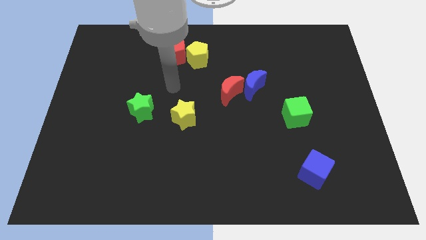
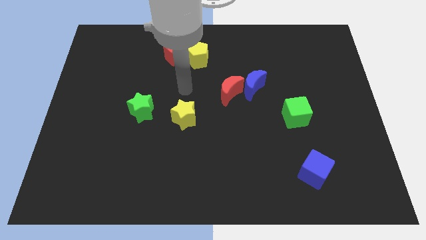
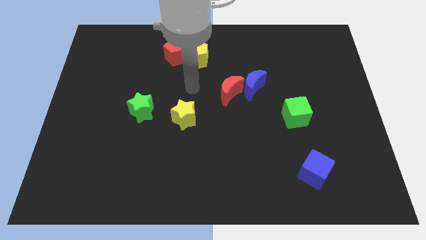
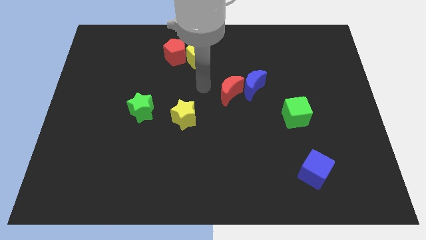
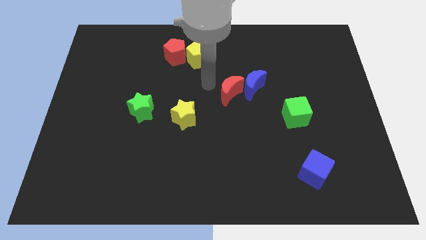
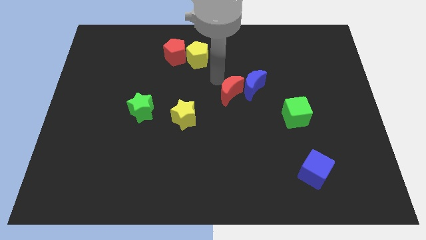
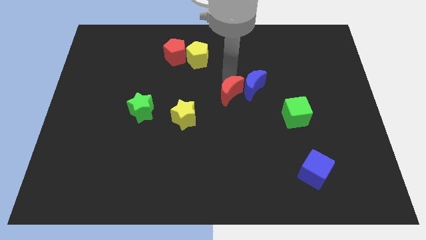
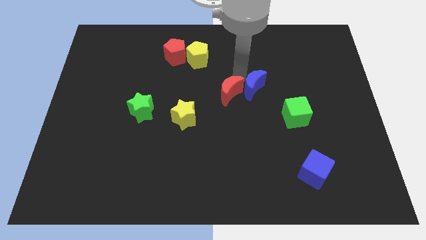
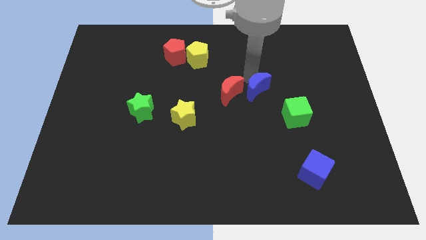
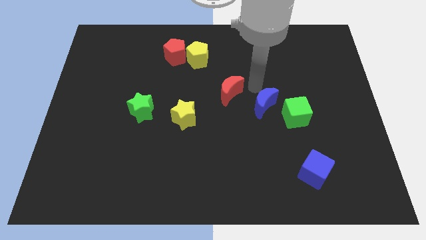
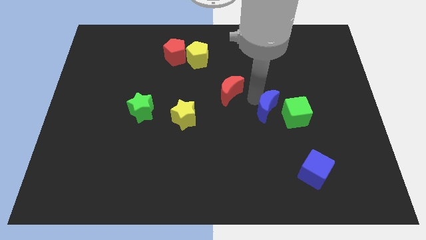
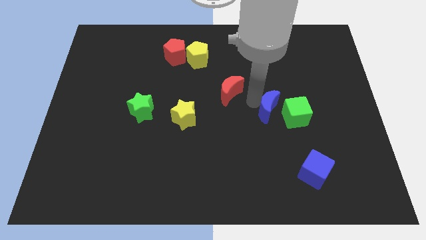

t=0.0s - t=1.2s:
move the red moon away from the blue moon

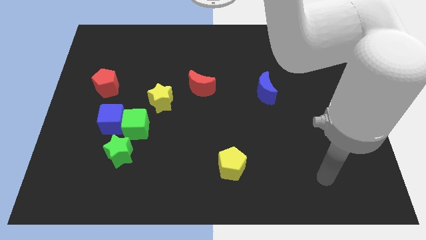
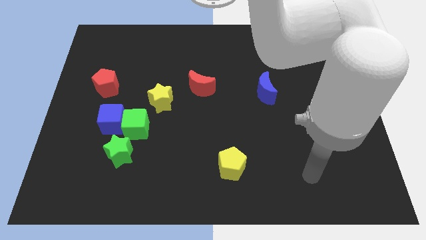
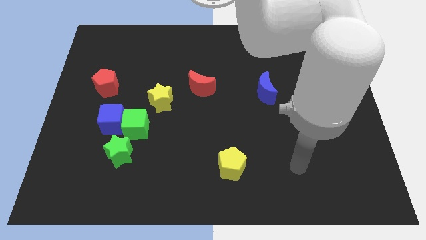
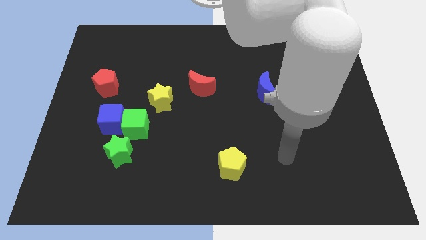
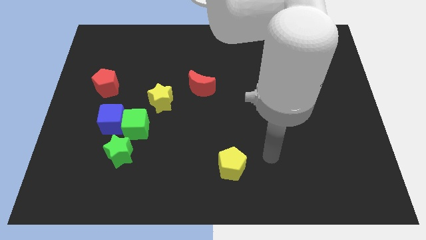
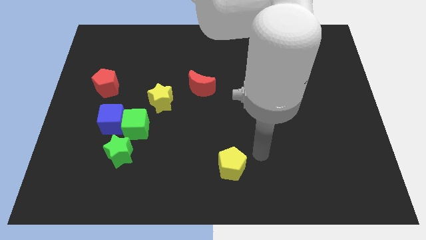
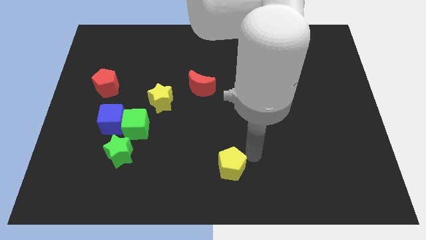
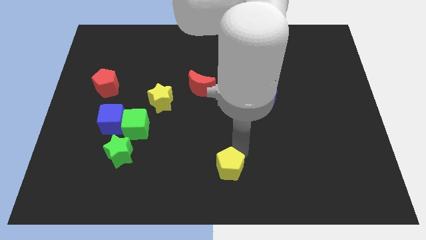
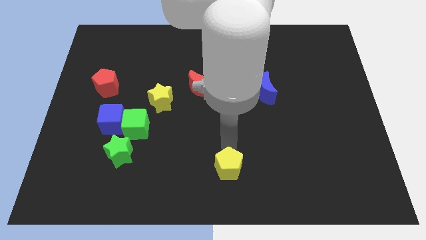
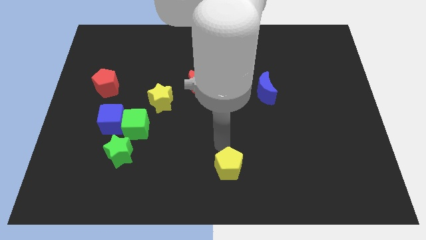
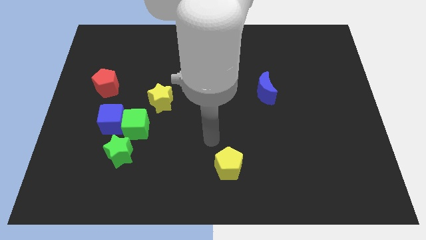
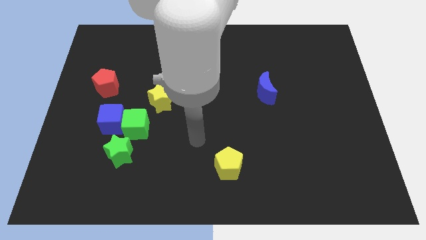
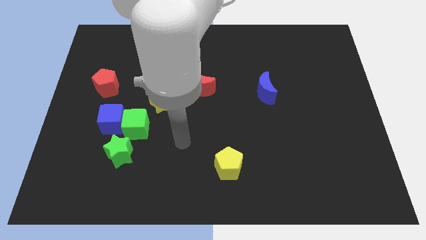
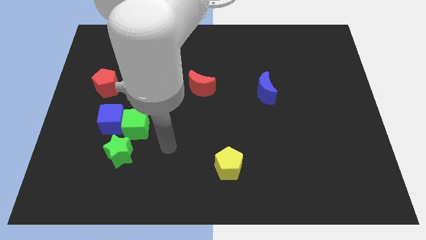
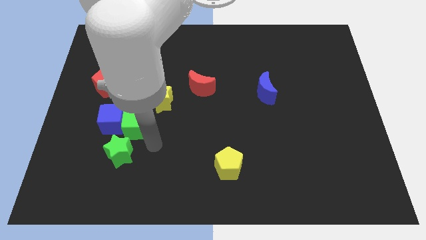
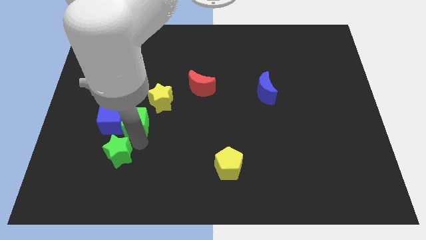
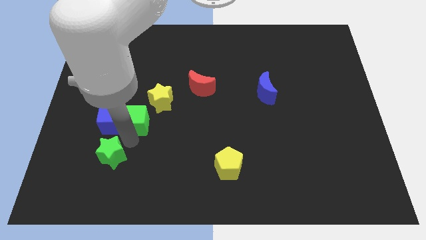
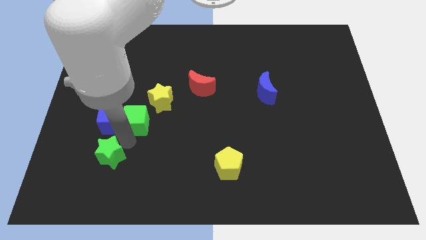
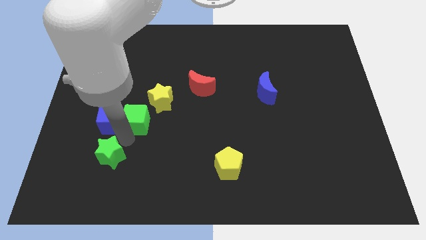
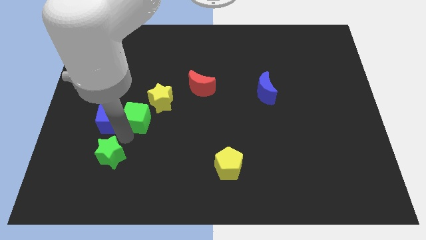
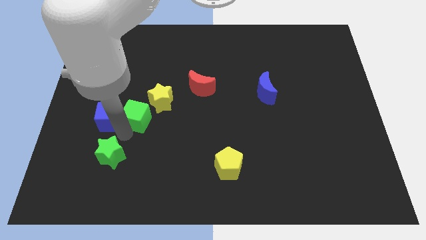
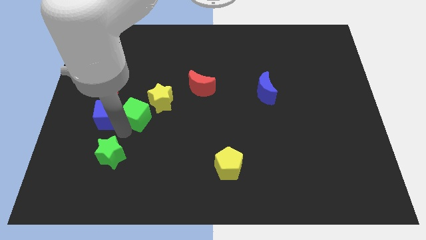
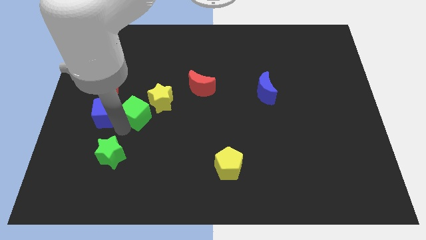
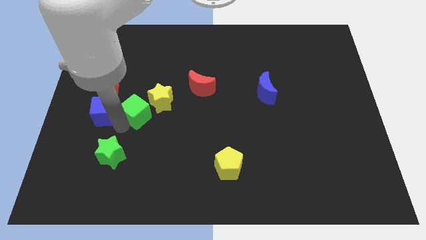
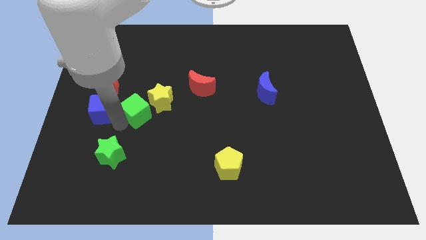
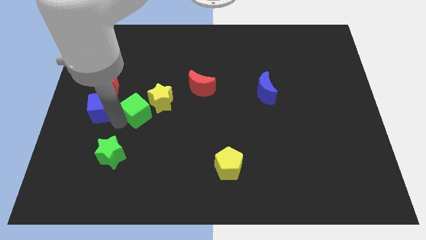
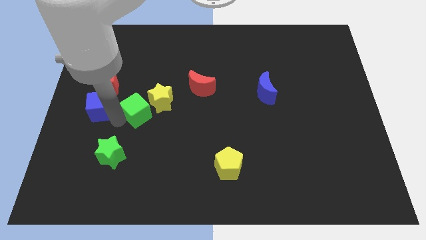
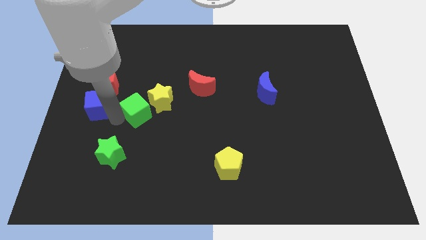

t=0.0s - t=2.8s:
pull the blue cube apart from the green cube and green star

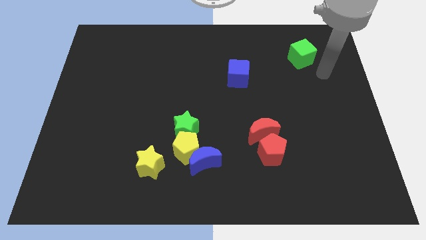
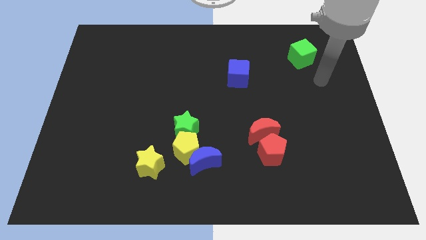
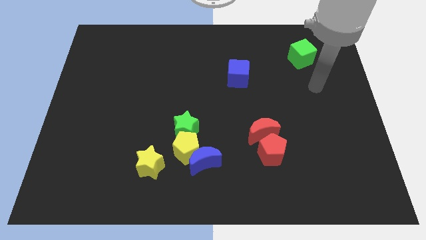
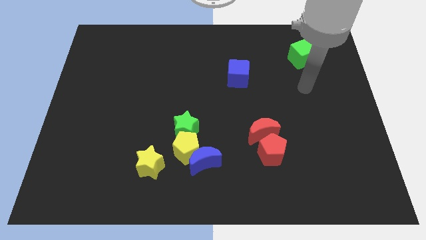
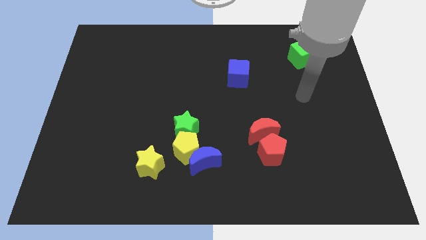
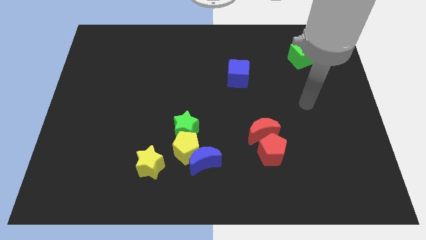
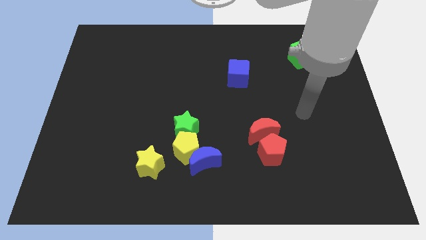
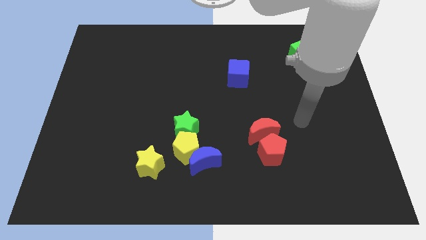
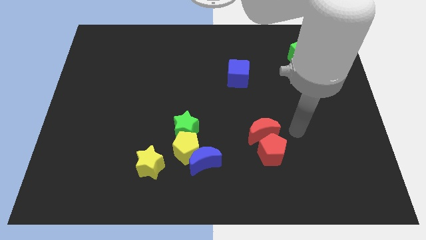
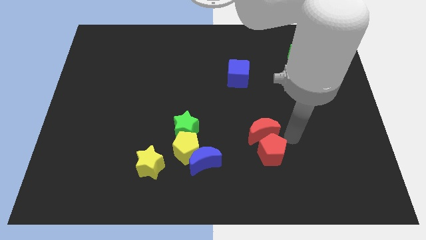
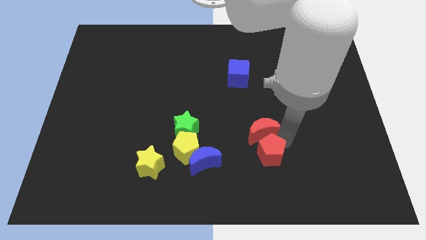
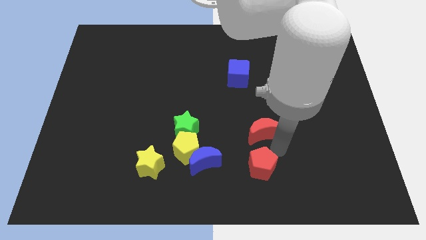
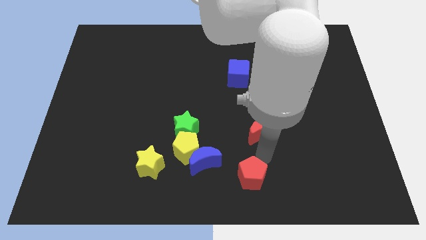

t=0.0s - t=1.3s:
pull the red moon apart from the red pentagon

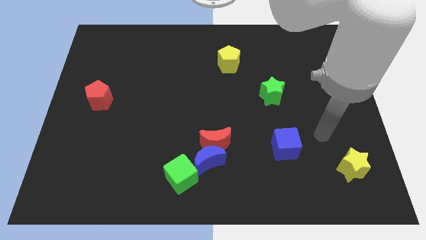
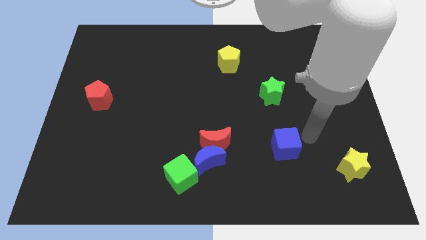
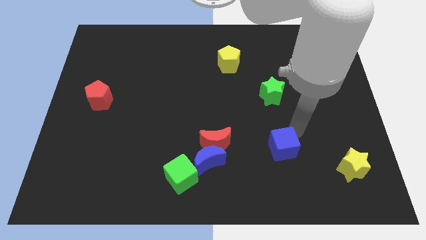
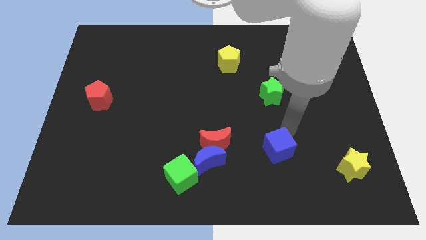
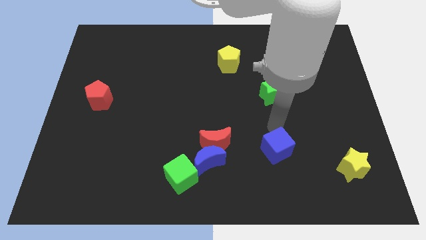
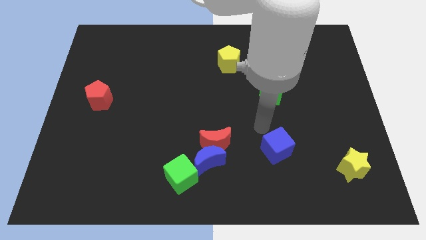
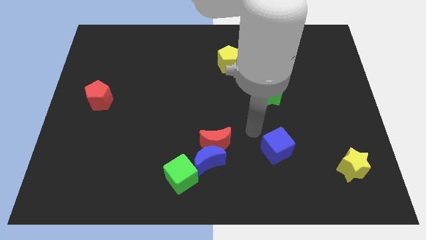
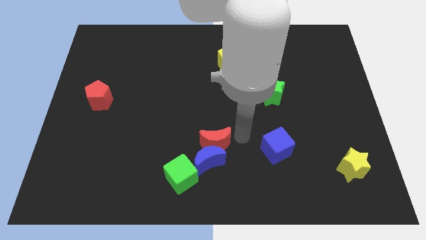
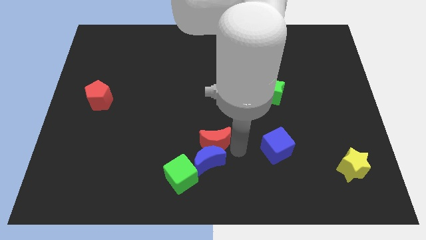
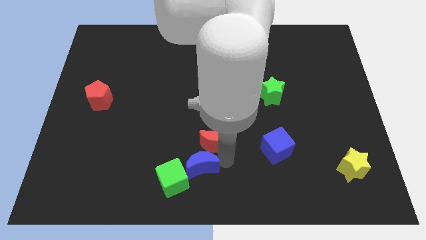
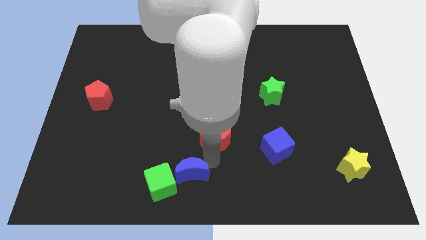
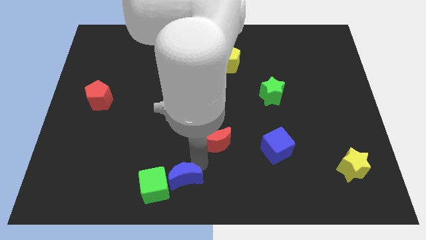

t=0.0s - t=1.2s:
pull the red moon apart from the blue moon

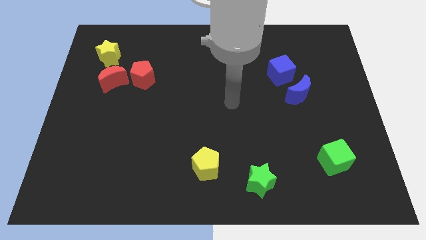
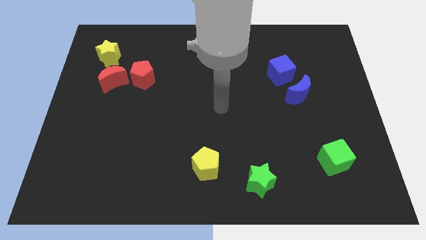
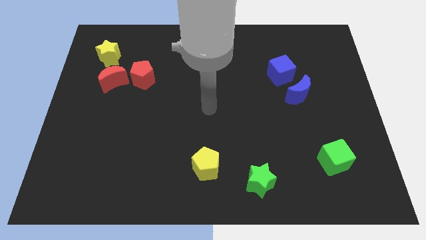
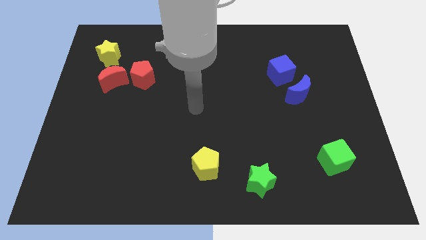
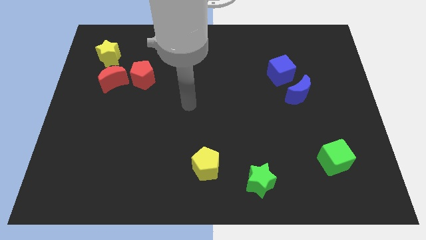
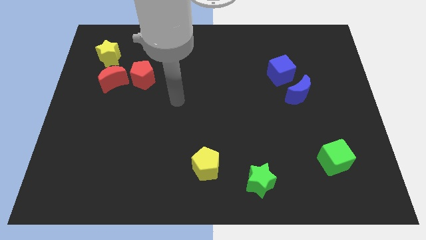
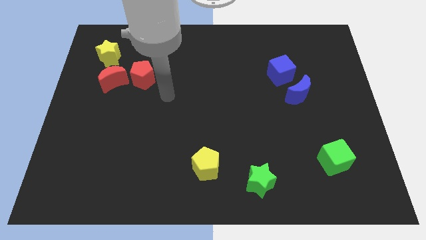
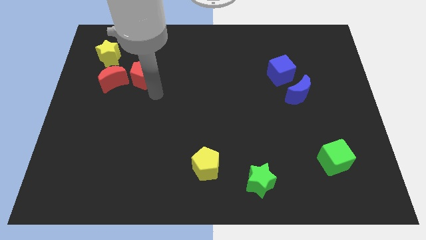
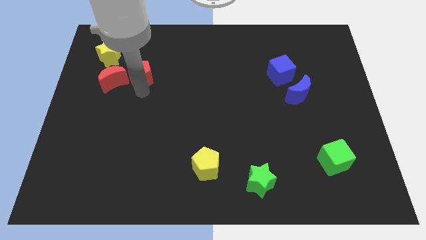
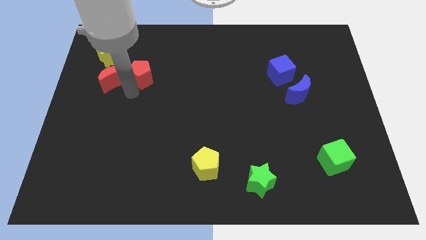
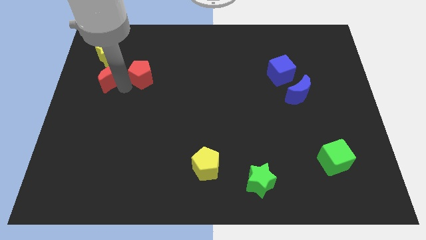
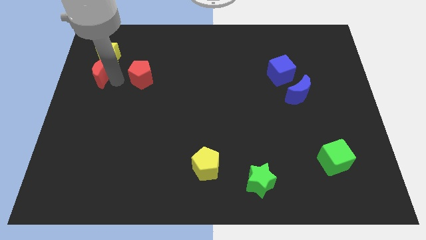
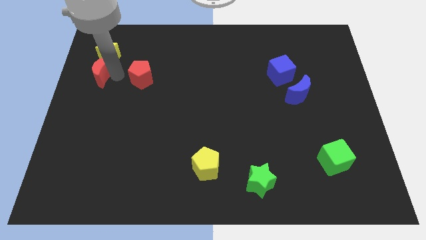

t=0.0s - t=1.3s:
move the red pentagon away from the red moon

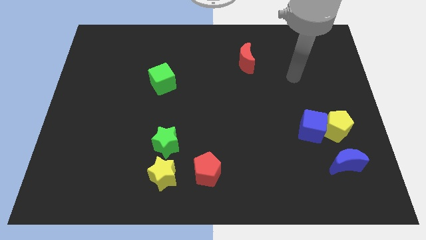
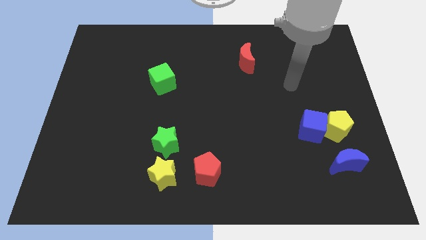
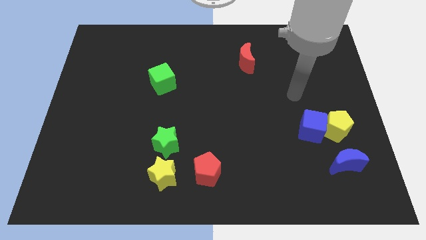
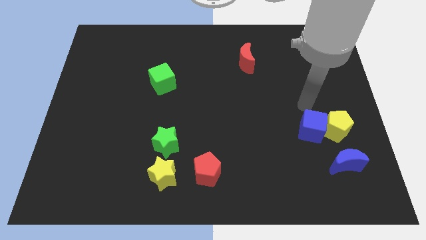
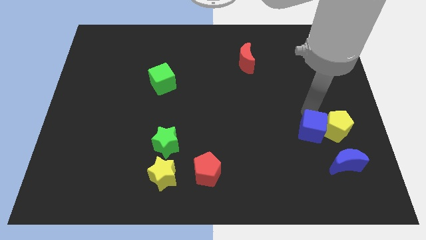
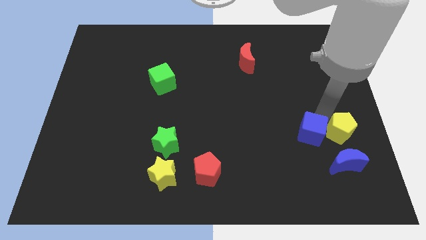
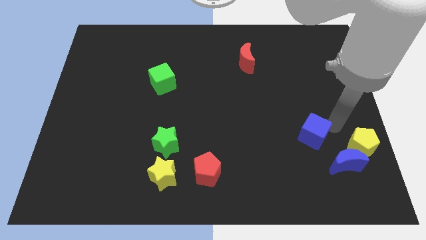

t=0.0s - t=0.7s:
move the blue cube away from the yellow pentagon

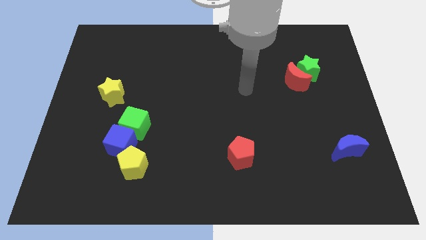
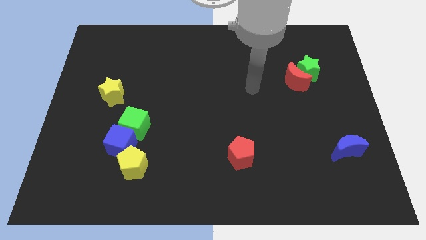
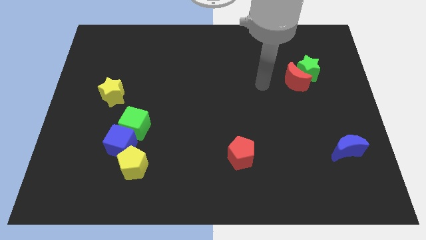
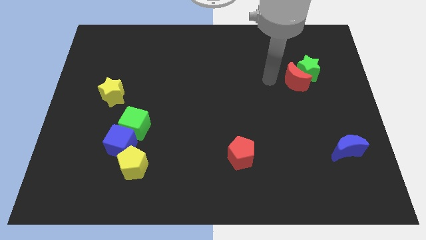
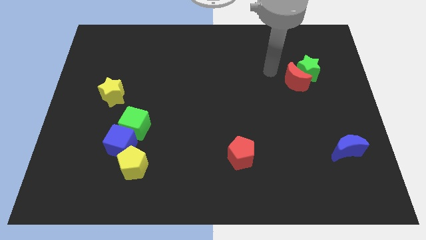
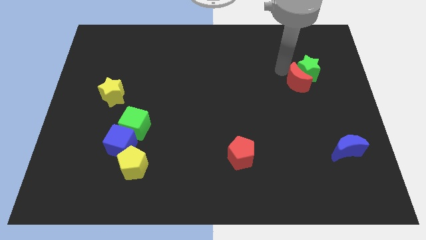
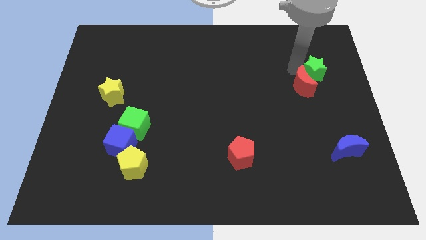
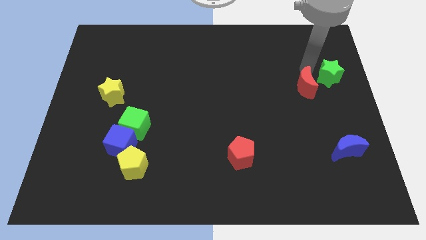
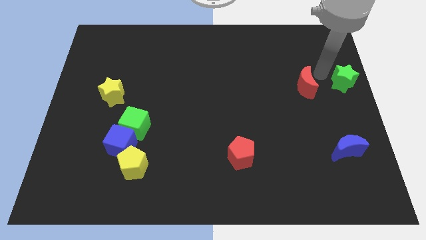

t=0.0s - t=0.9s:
pull the red moon apart from the green star

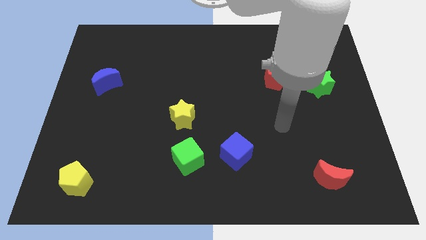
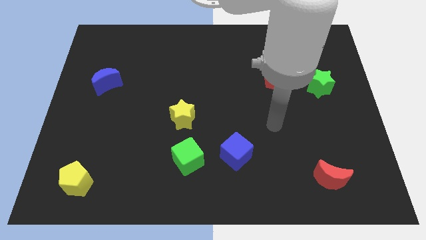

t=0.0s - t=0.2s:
separate the blue cube from the green cube
